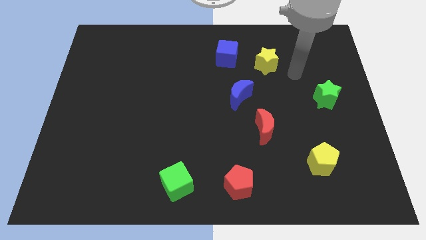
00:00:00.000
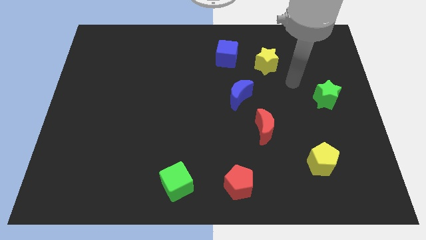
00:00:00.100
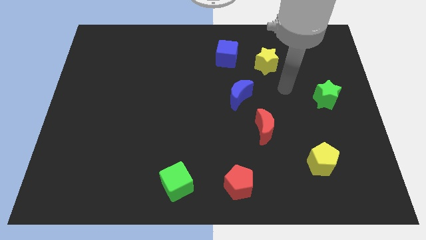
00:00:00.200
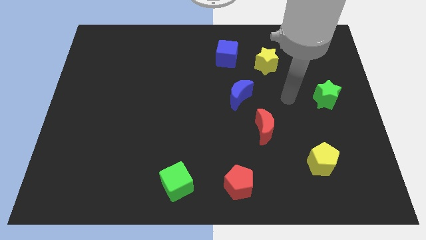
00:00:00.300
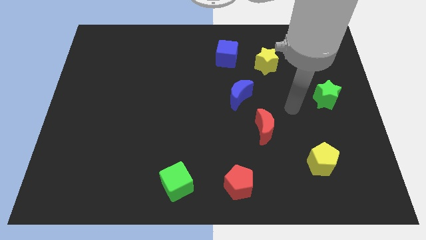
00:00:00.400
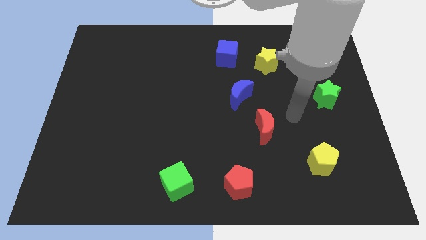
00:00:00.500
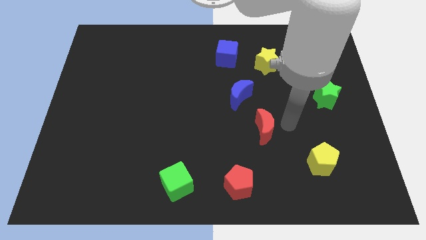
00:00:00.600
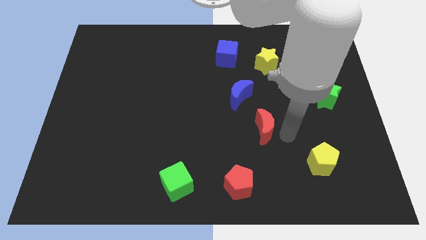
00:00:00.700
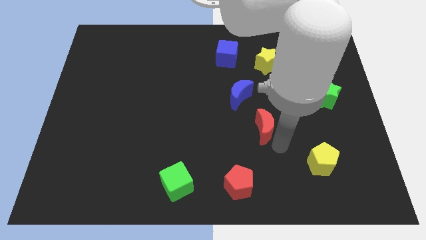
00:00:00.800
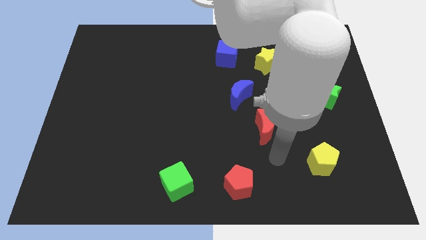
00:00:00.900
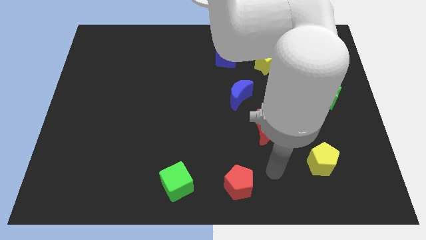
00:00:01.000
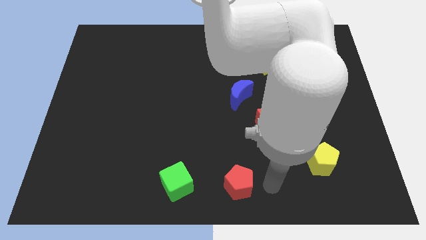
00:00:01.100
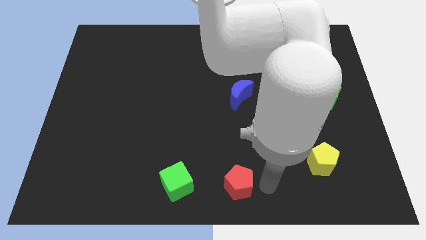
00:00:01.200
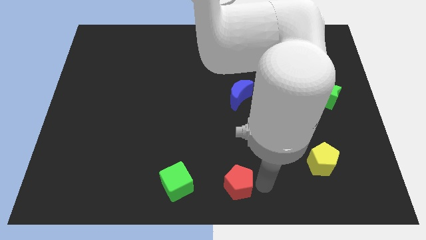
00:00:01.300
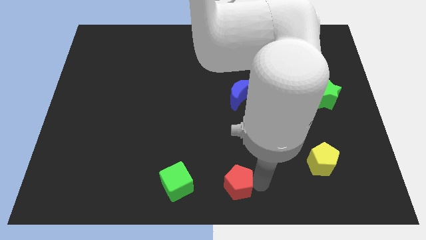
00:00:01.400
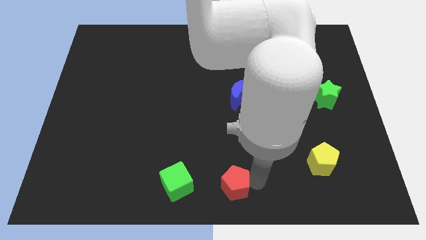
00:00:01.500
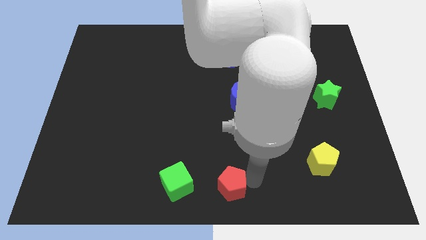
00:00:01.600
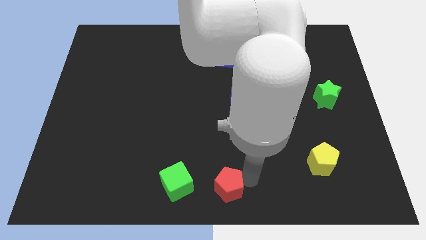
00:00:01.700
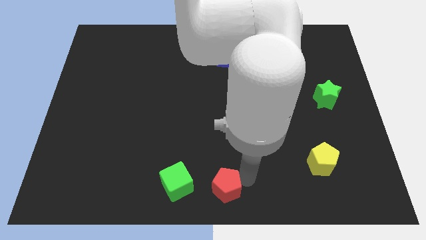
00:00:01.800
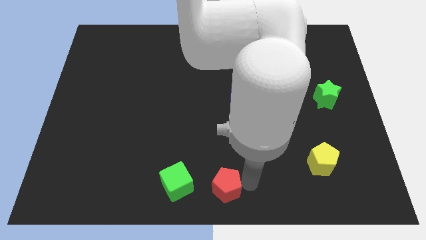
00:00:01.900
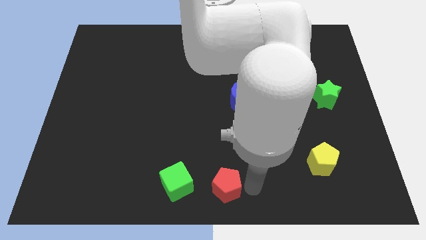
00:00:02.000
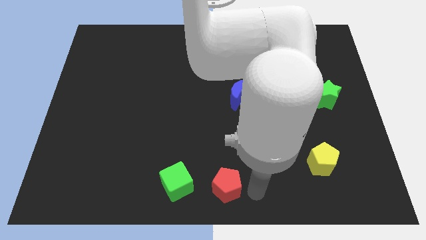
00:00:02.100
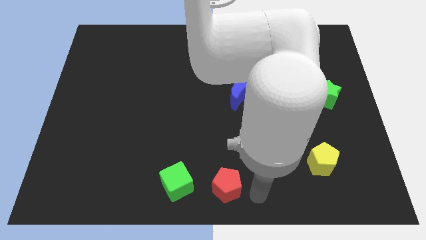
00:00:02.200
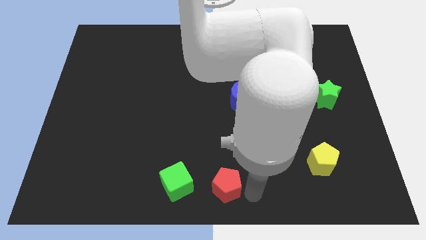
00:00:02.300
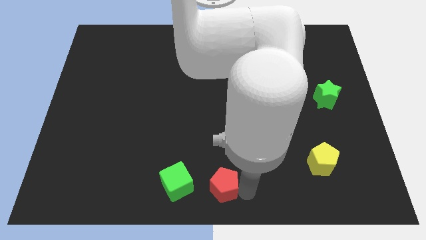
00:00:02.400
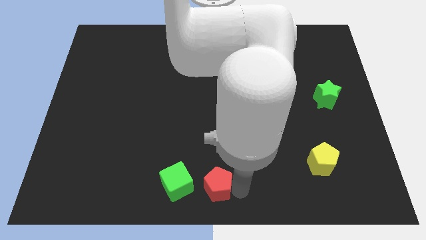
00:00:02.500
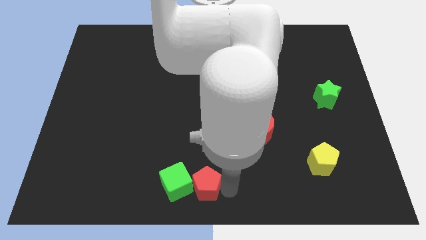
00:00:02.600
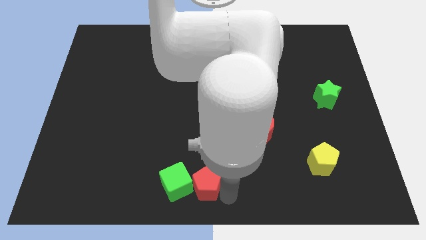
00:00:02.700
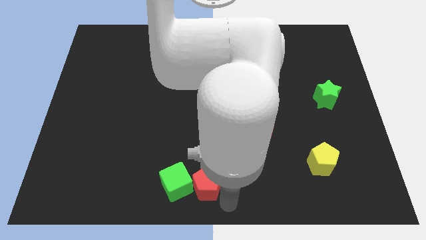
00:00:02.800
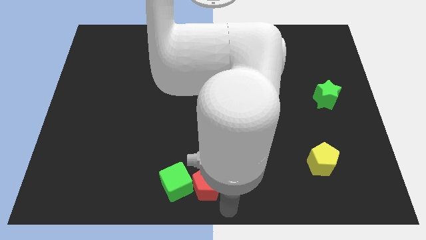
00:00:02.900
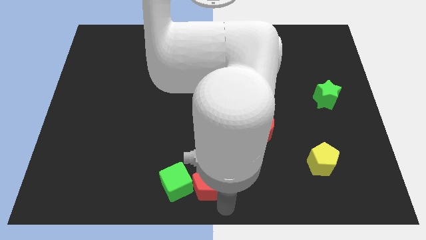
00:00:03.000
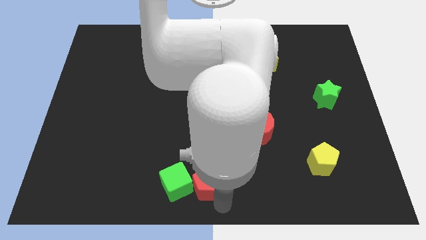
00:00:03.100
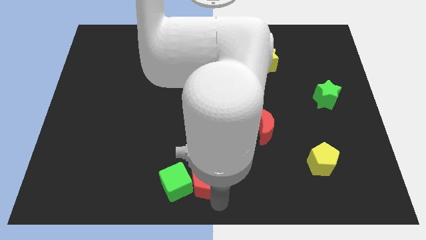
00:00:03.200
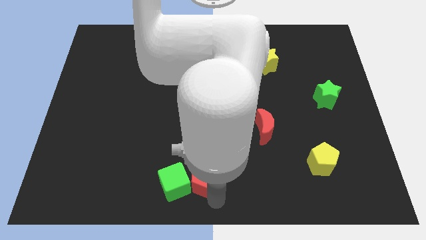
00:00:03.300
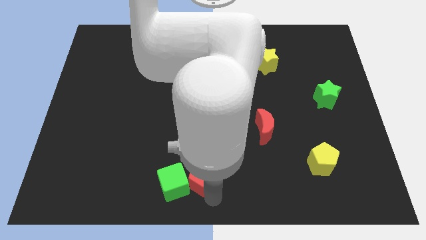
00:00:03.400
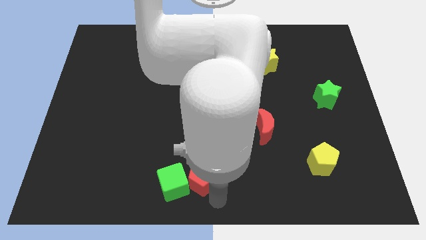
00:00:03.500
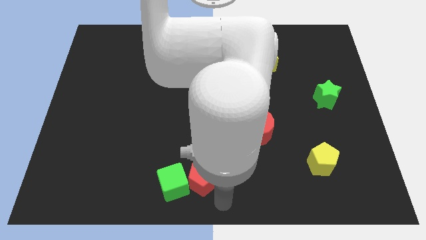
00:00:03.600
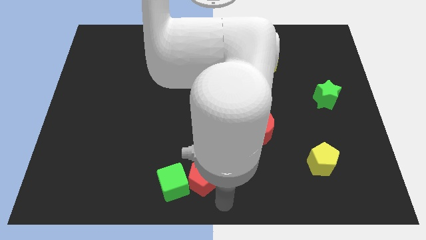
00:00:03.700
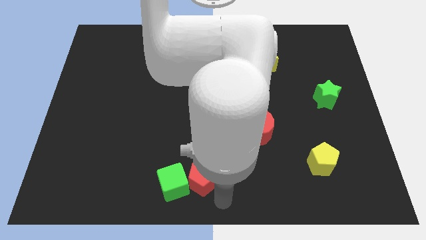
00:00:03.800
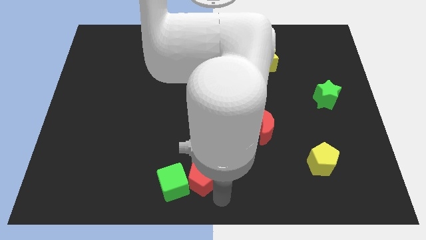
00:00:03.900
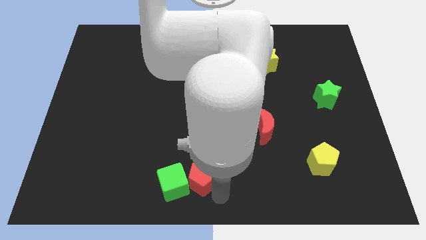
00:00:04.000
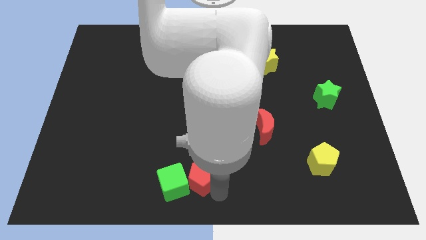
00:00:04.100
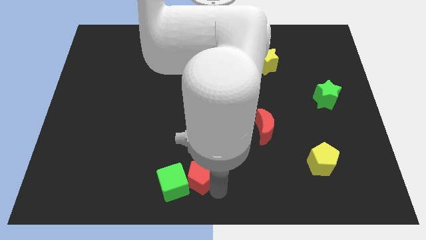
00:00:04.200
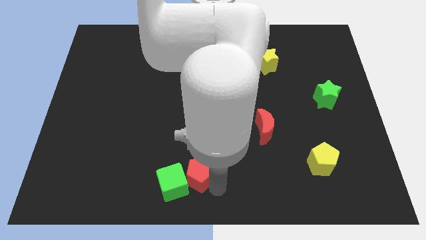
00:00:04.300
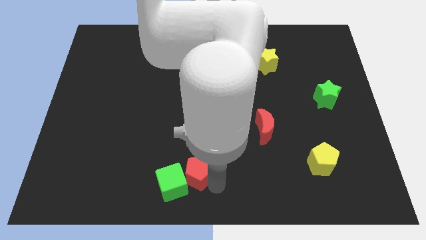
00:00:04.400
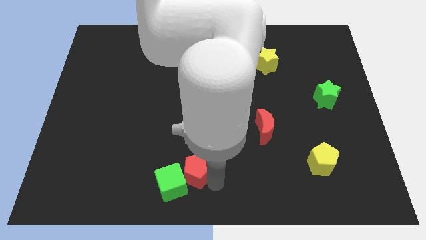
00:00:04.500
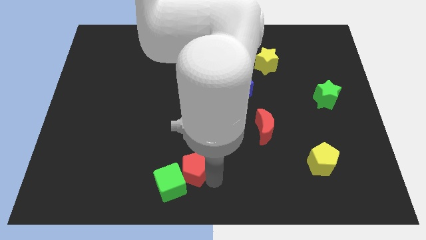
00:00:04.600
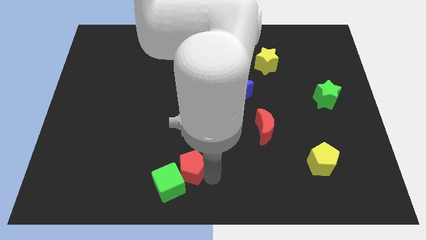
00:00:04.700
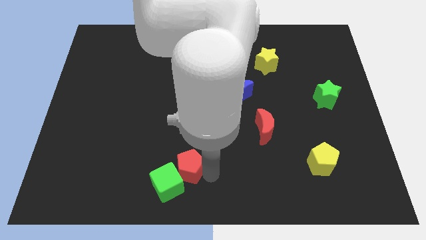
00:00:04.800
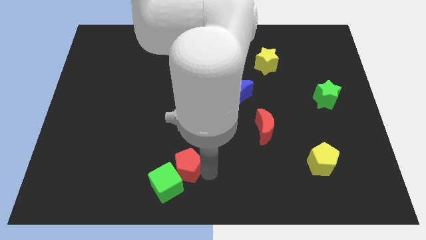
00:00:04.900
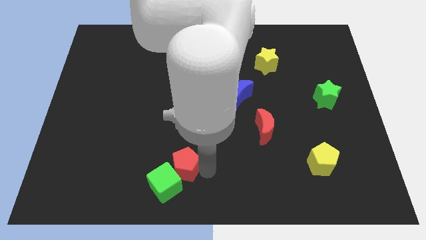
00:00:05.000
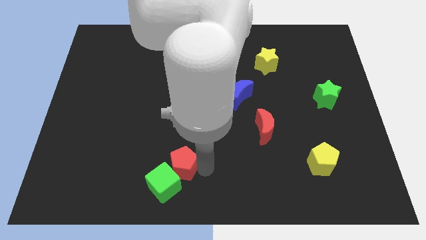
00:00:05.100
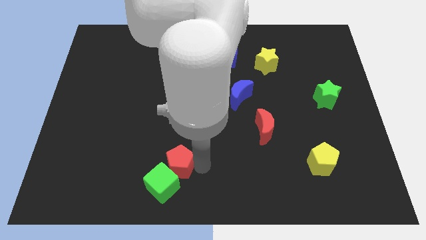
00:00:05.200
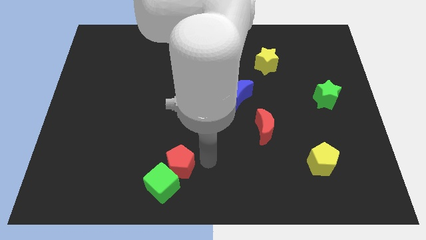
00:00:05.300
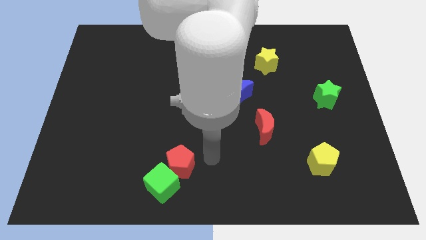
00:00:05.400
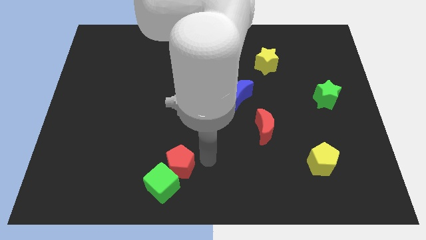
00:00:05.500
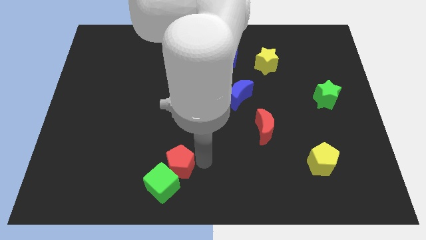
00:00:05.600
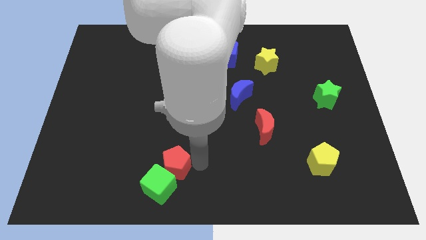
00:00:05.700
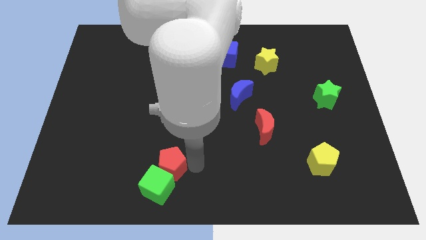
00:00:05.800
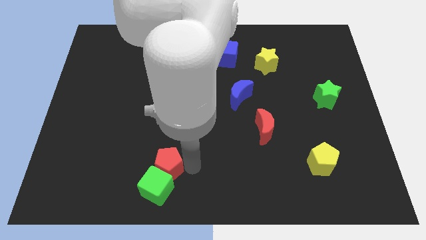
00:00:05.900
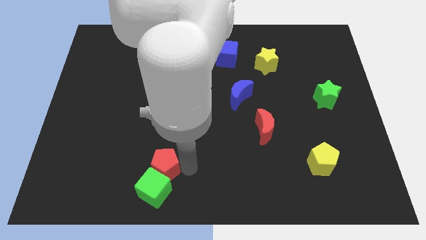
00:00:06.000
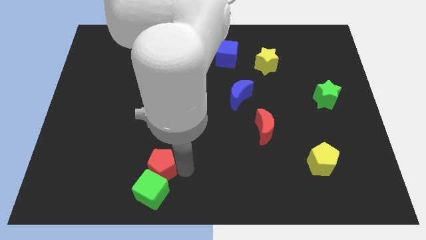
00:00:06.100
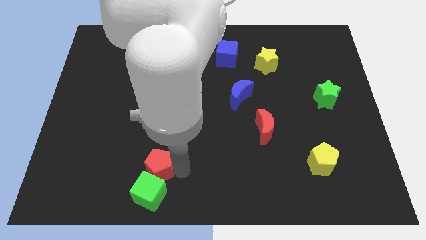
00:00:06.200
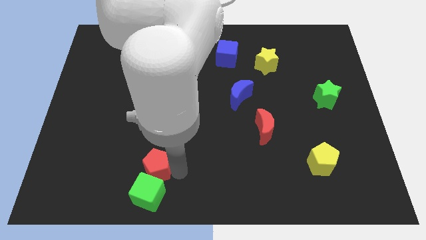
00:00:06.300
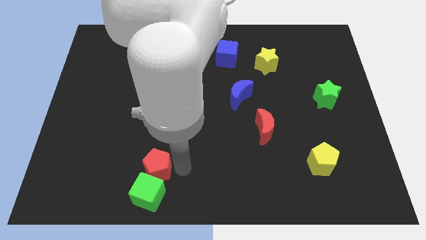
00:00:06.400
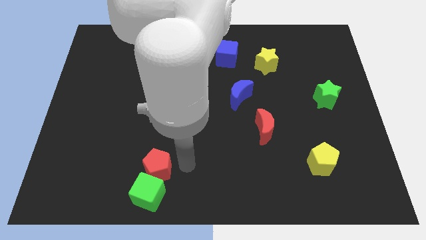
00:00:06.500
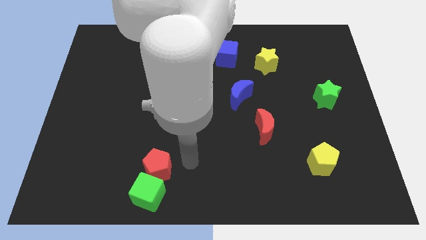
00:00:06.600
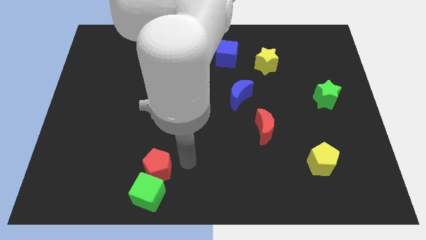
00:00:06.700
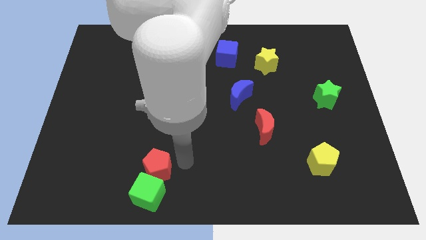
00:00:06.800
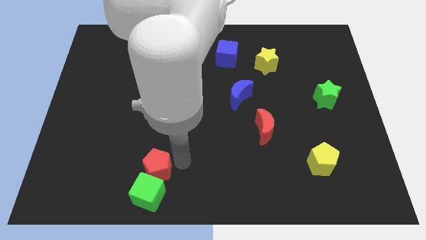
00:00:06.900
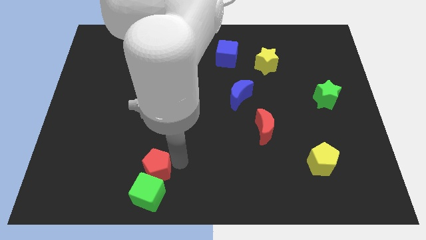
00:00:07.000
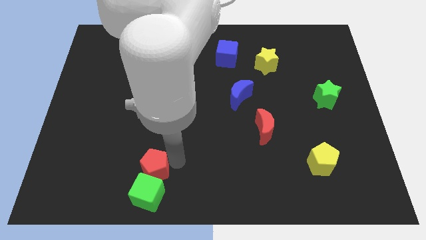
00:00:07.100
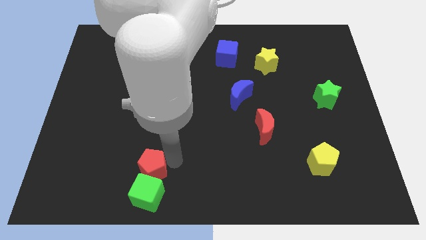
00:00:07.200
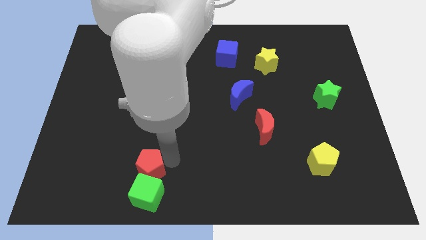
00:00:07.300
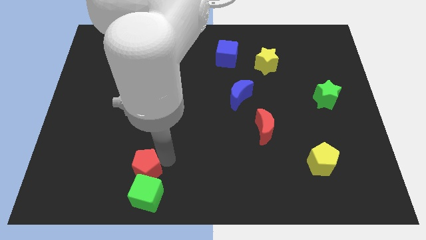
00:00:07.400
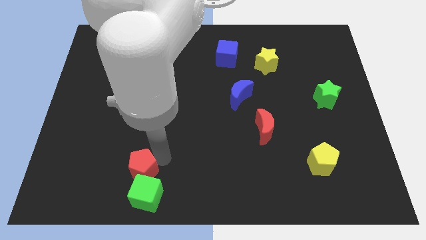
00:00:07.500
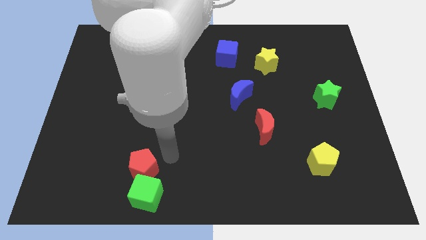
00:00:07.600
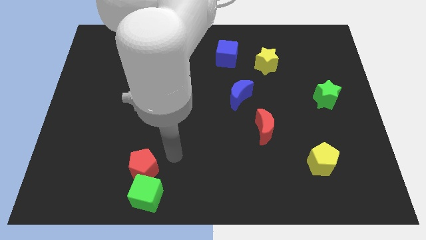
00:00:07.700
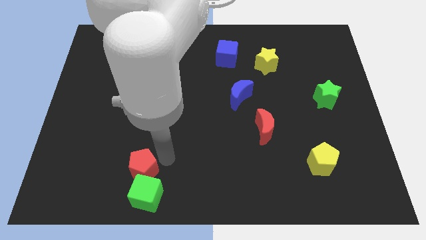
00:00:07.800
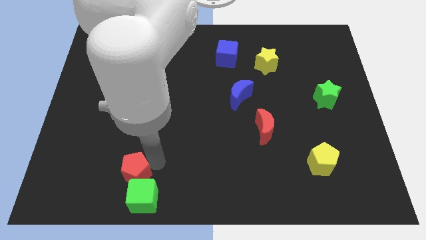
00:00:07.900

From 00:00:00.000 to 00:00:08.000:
push the red pentagon left

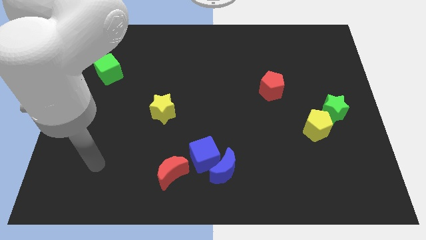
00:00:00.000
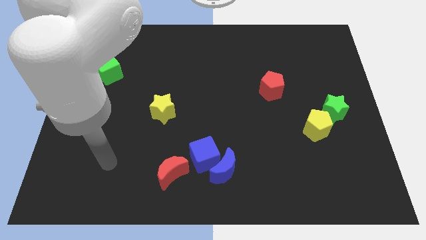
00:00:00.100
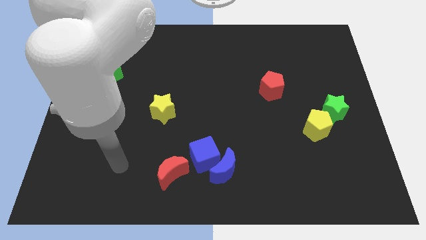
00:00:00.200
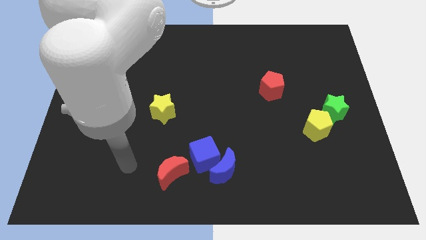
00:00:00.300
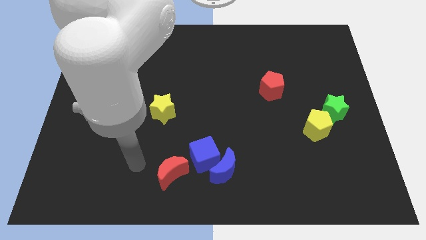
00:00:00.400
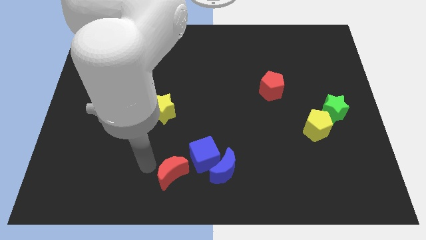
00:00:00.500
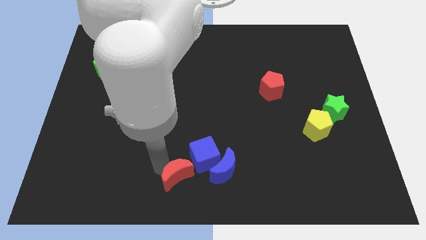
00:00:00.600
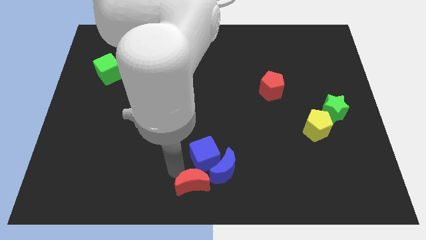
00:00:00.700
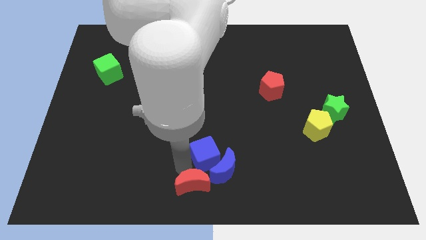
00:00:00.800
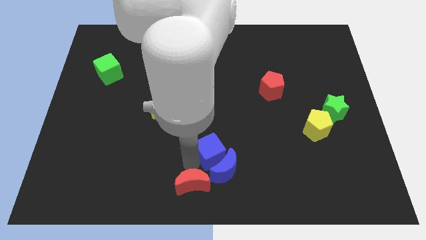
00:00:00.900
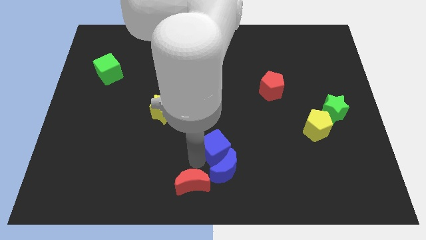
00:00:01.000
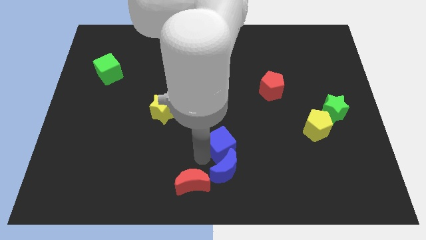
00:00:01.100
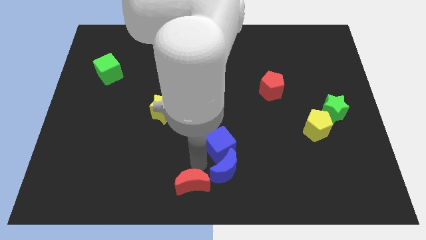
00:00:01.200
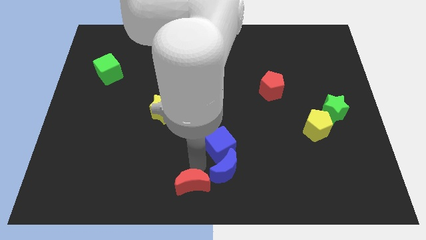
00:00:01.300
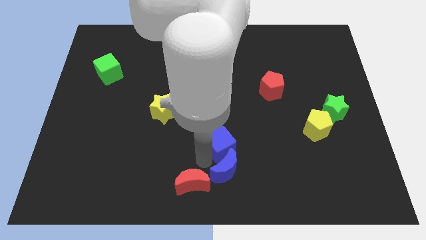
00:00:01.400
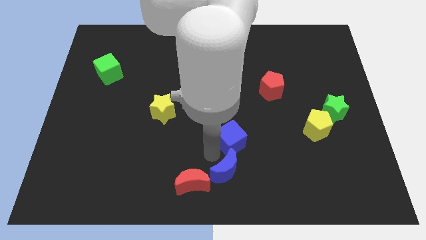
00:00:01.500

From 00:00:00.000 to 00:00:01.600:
slide the blue cube diagonally up and right somewhat
